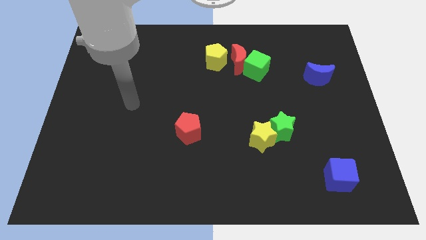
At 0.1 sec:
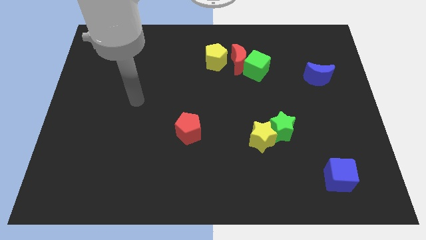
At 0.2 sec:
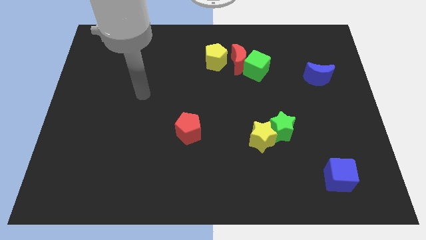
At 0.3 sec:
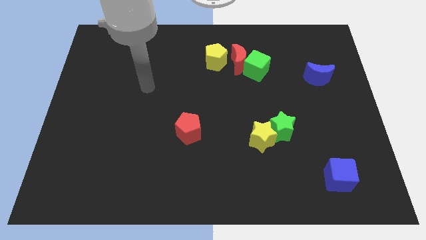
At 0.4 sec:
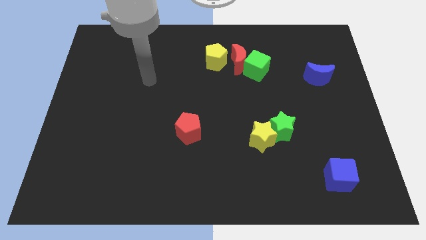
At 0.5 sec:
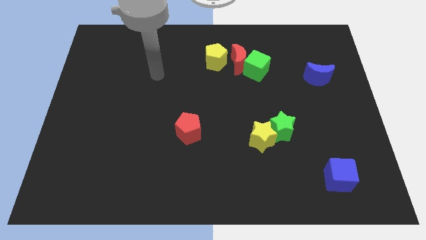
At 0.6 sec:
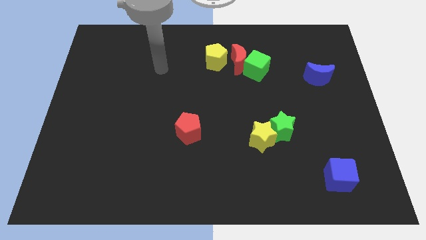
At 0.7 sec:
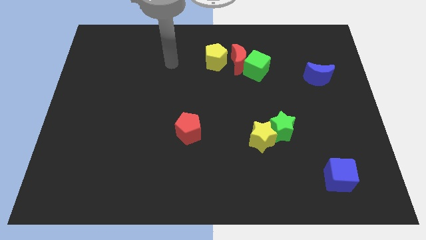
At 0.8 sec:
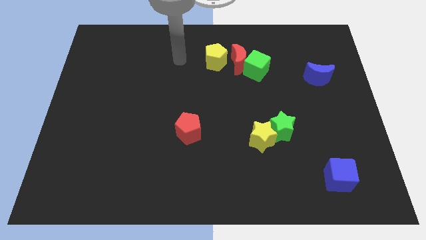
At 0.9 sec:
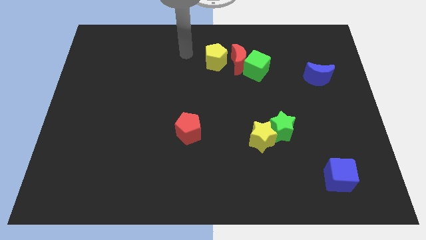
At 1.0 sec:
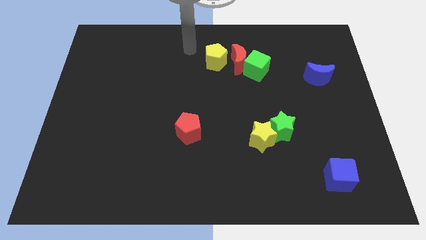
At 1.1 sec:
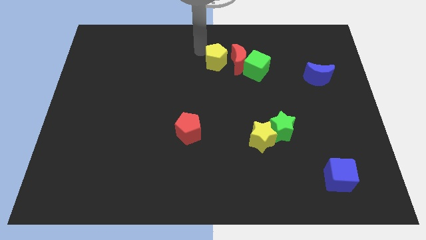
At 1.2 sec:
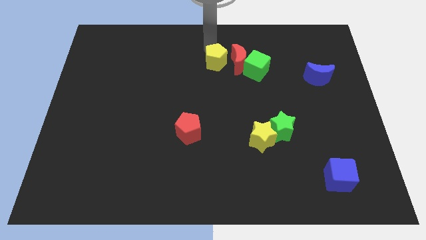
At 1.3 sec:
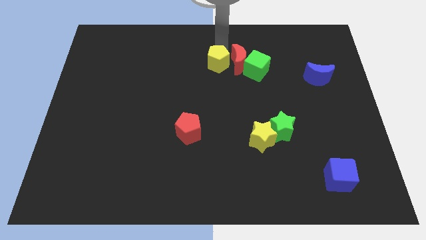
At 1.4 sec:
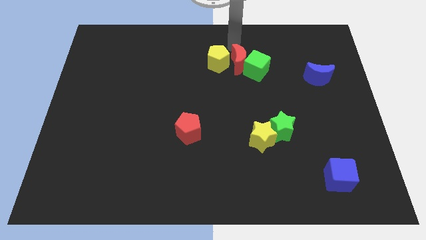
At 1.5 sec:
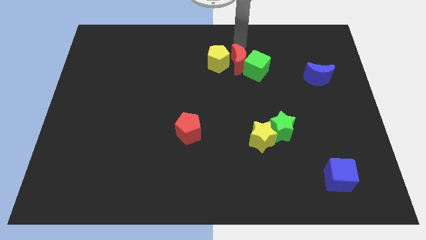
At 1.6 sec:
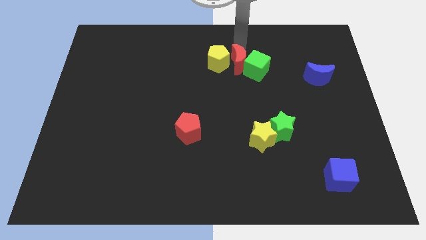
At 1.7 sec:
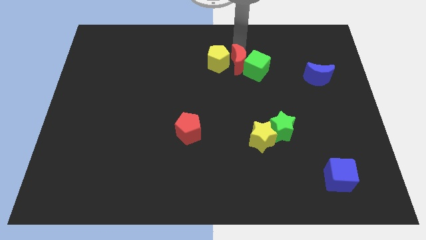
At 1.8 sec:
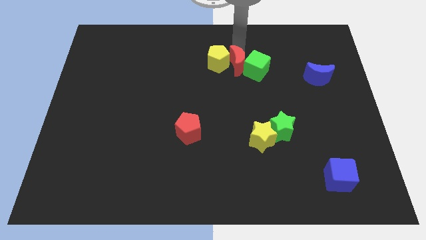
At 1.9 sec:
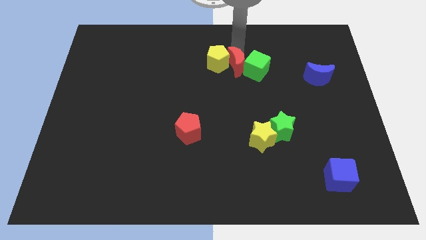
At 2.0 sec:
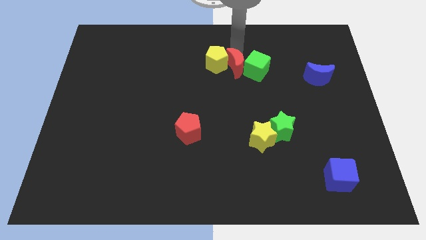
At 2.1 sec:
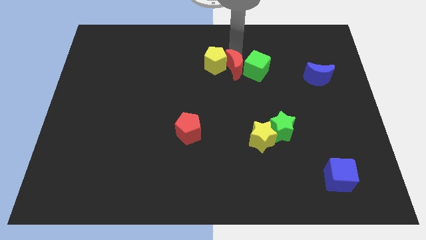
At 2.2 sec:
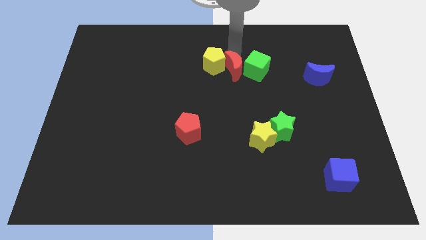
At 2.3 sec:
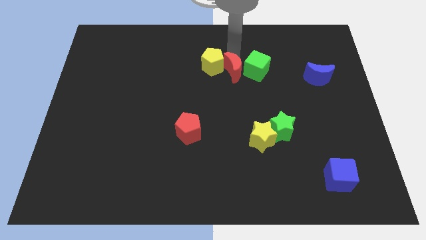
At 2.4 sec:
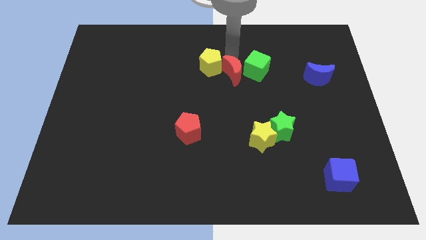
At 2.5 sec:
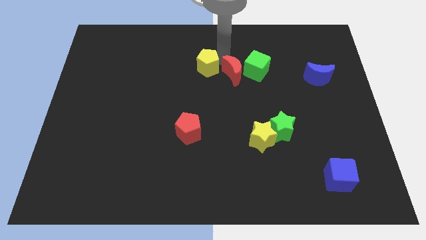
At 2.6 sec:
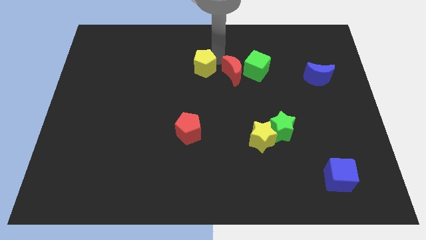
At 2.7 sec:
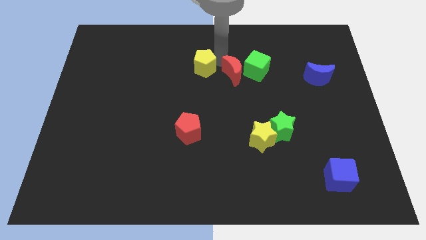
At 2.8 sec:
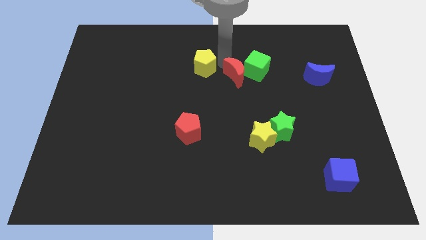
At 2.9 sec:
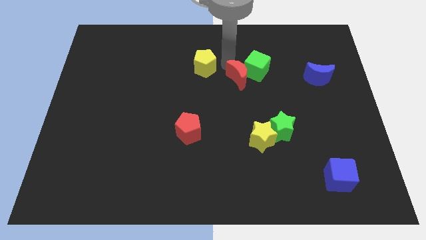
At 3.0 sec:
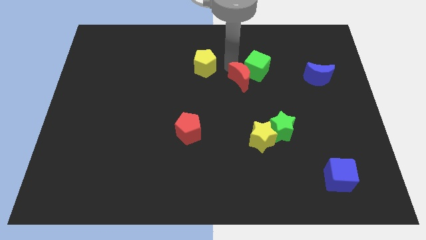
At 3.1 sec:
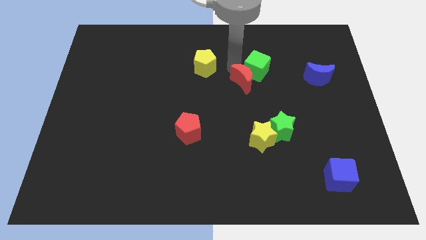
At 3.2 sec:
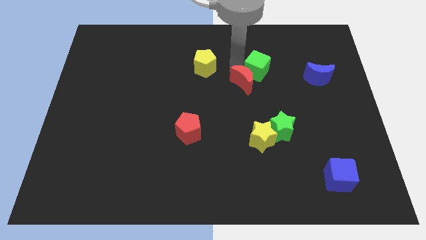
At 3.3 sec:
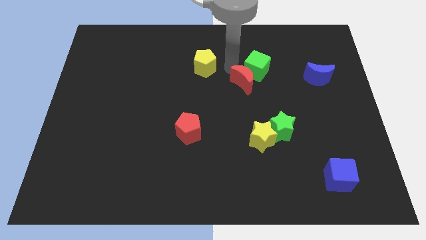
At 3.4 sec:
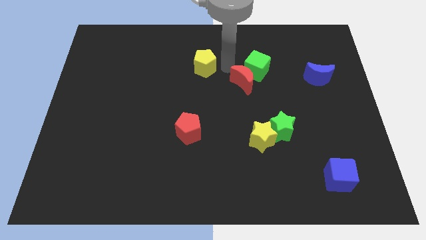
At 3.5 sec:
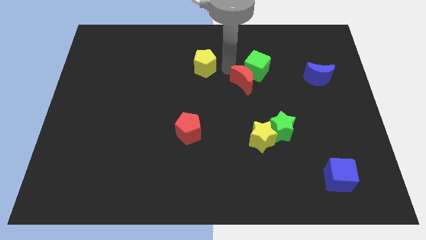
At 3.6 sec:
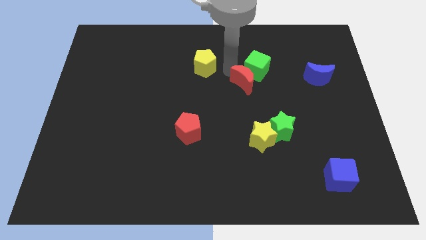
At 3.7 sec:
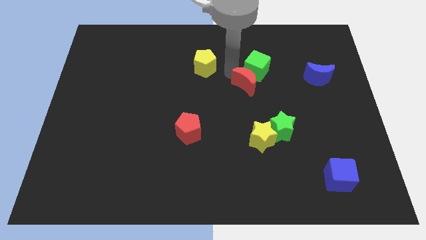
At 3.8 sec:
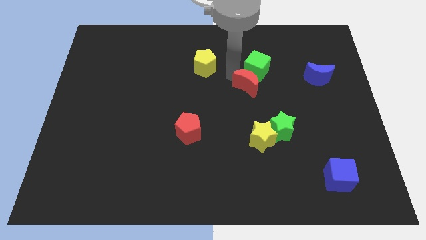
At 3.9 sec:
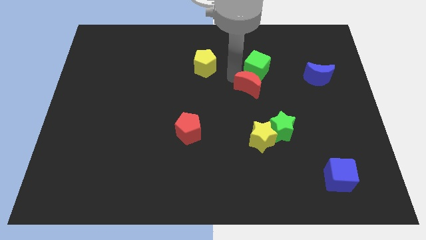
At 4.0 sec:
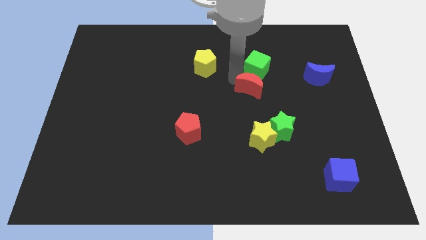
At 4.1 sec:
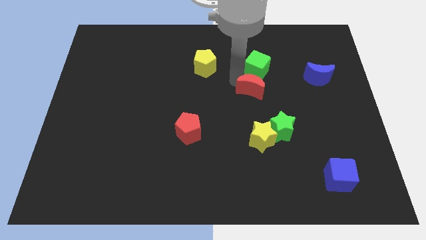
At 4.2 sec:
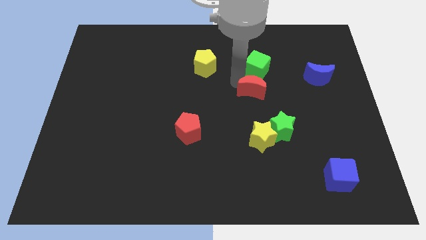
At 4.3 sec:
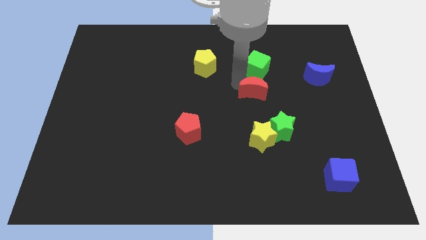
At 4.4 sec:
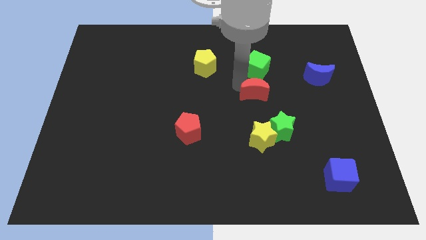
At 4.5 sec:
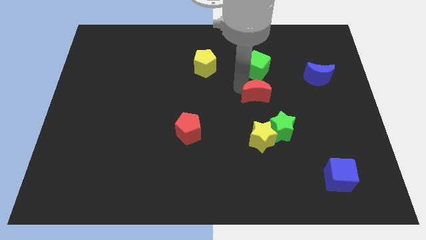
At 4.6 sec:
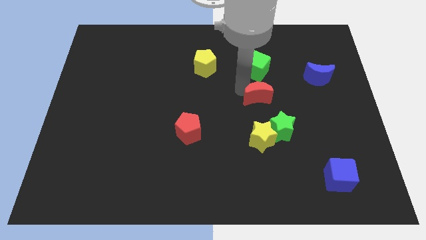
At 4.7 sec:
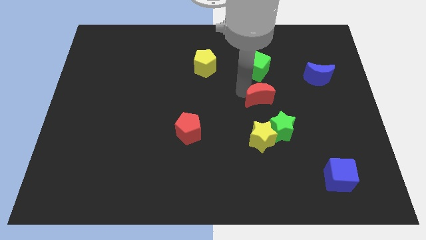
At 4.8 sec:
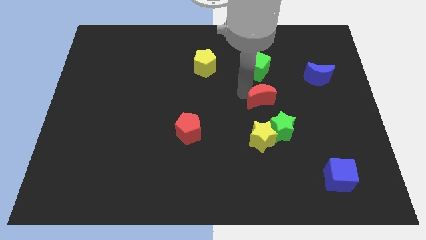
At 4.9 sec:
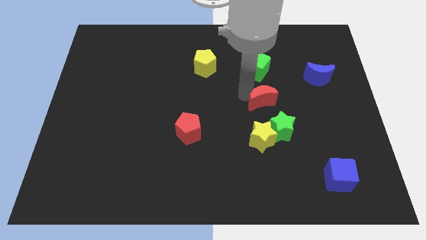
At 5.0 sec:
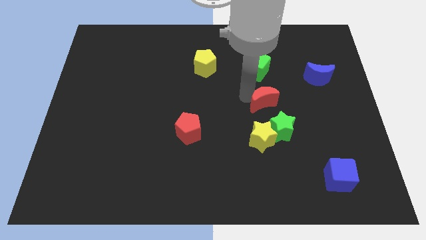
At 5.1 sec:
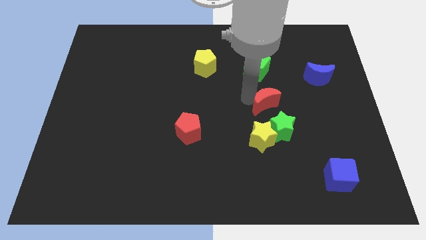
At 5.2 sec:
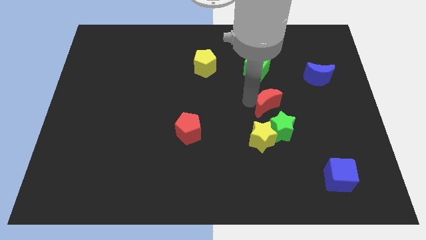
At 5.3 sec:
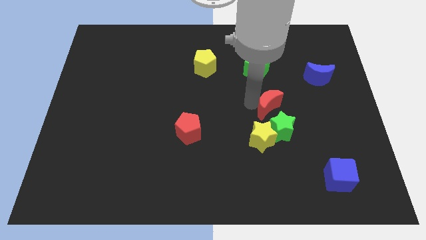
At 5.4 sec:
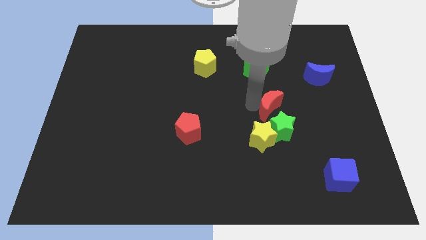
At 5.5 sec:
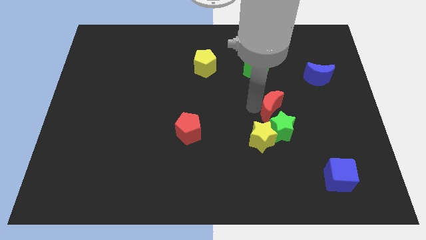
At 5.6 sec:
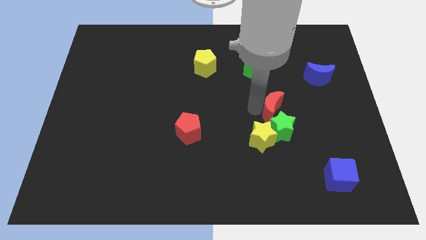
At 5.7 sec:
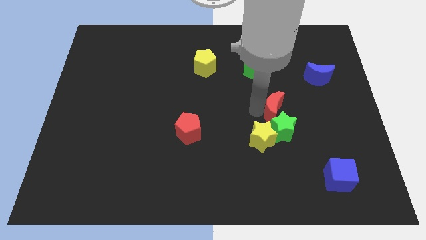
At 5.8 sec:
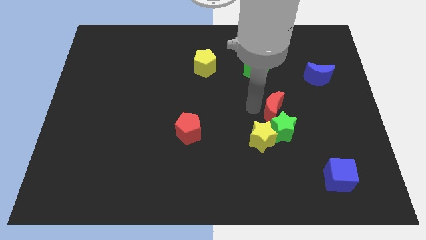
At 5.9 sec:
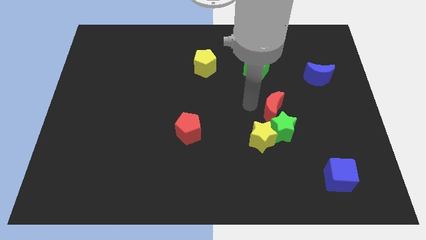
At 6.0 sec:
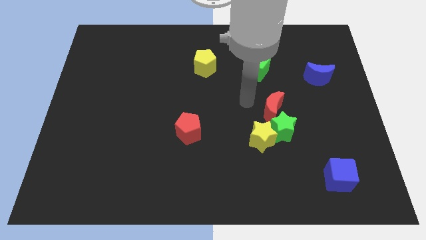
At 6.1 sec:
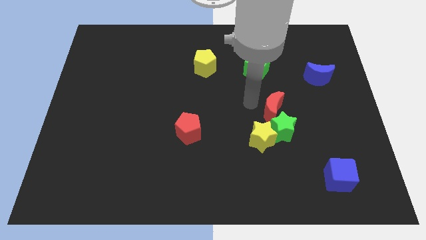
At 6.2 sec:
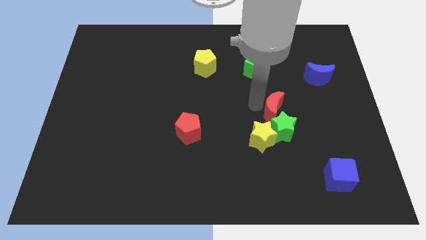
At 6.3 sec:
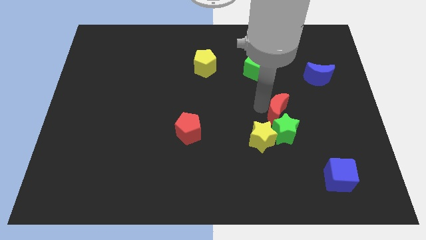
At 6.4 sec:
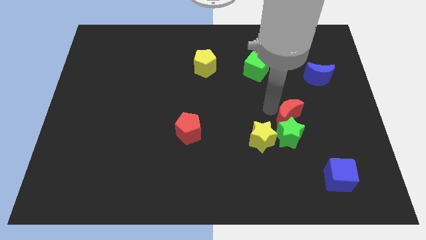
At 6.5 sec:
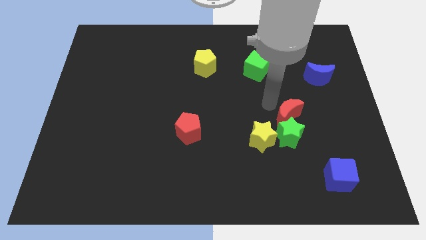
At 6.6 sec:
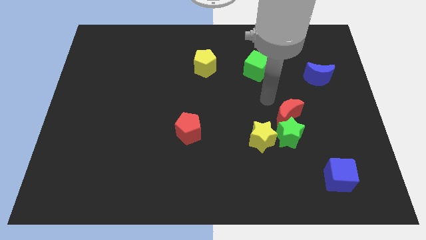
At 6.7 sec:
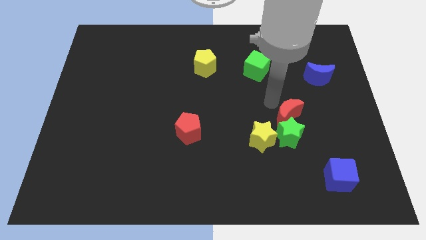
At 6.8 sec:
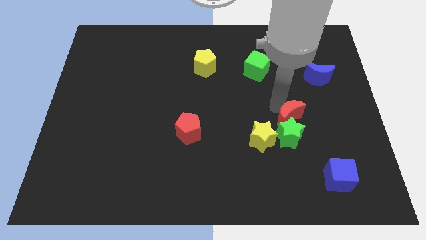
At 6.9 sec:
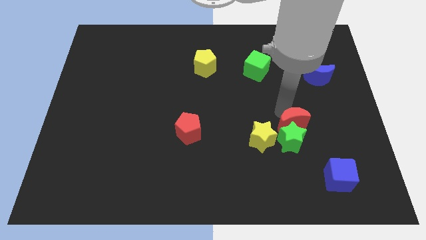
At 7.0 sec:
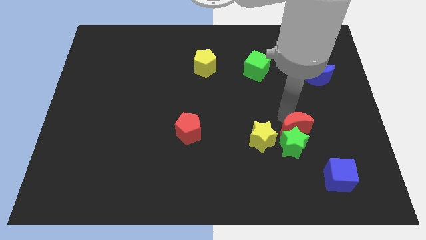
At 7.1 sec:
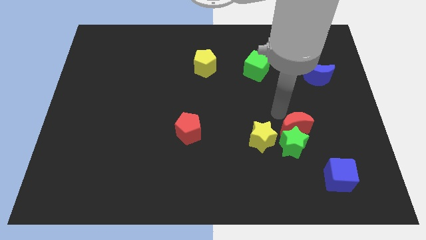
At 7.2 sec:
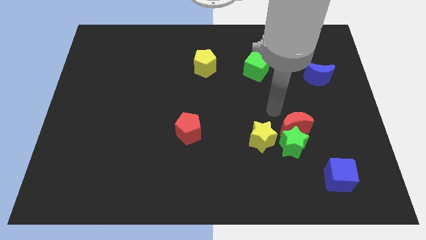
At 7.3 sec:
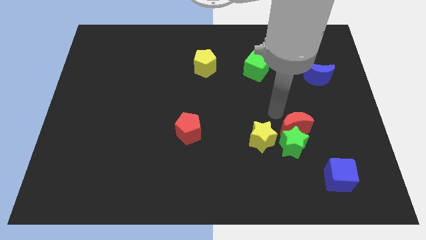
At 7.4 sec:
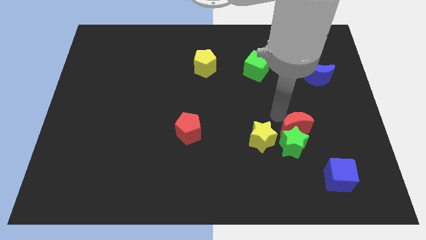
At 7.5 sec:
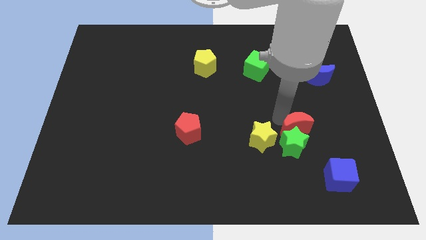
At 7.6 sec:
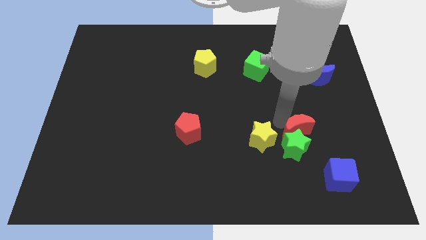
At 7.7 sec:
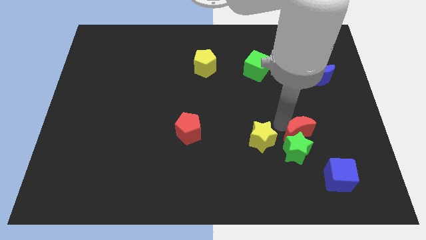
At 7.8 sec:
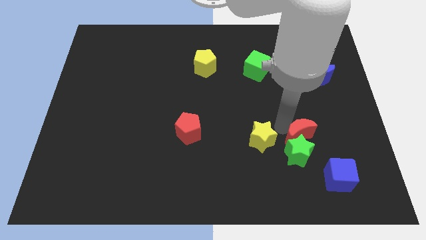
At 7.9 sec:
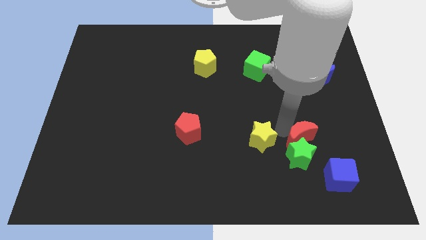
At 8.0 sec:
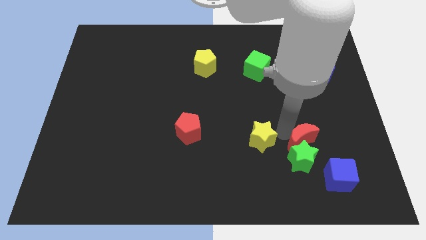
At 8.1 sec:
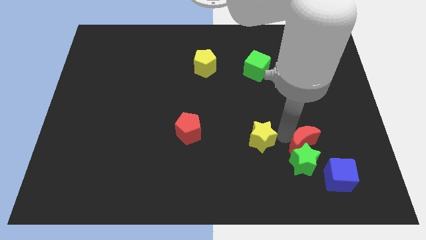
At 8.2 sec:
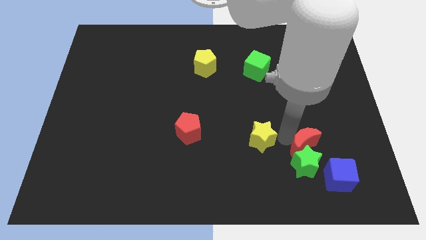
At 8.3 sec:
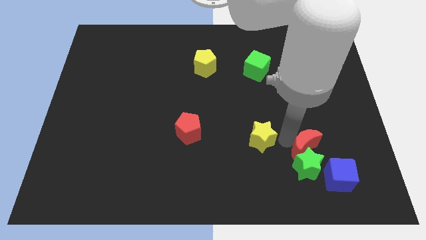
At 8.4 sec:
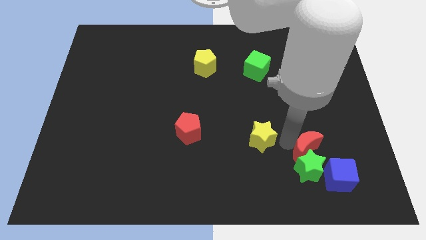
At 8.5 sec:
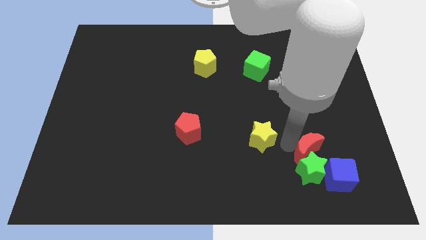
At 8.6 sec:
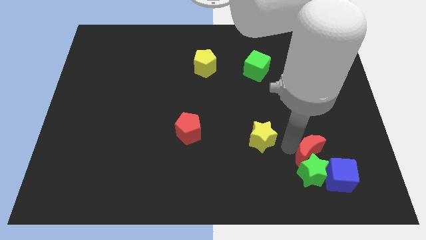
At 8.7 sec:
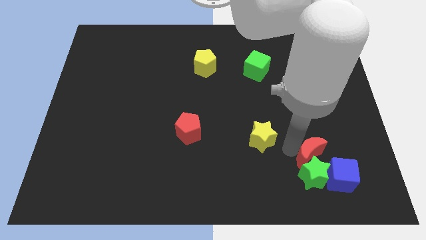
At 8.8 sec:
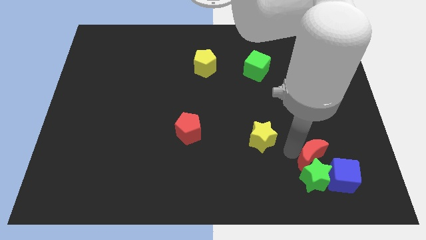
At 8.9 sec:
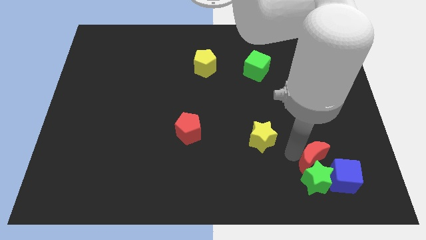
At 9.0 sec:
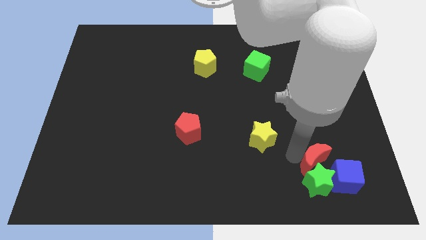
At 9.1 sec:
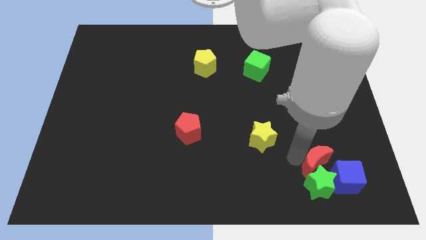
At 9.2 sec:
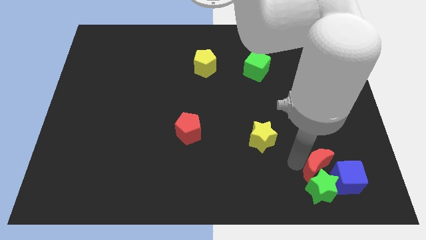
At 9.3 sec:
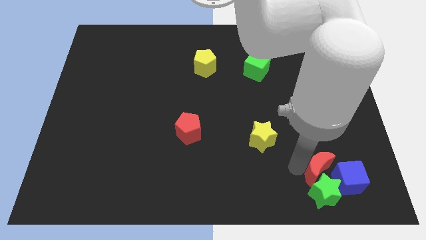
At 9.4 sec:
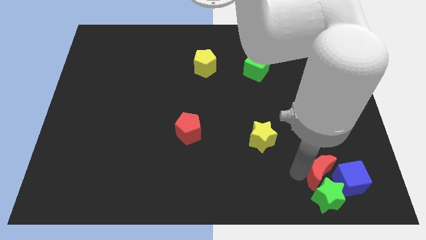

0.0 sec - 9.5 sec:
push the red moon next to the blue cube
